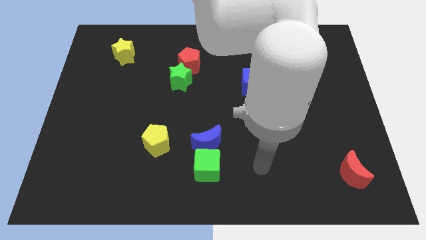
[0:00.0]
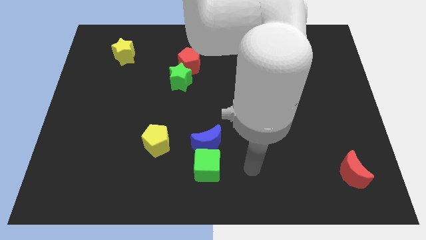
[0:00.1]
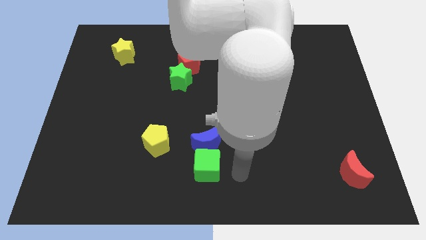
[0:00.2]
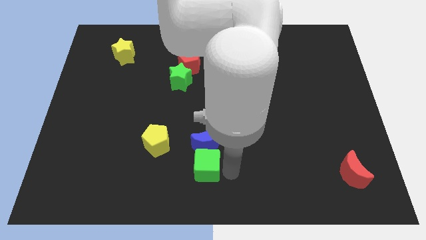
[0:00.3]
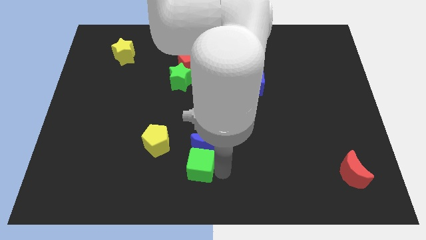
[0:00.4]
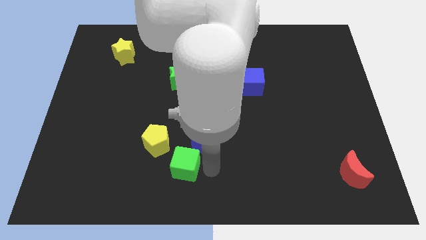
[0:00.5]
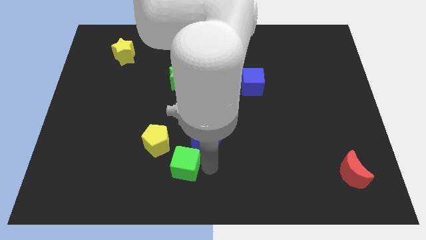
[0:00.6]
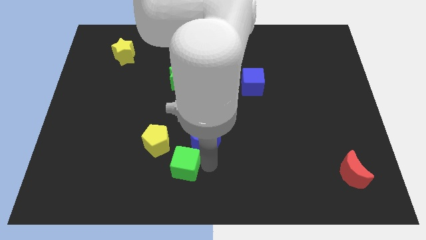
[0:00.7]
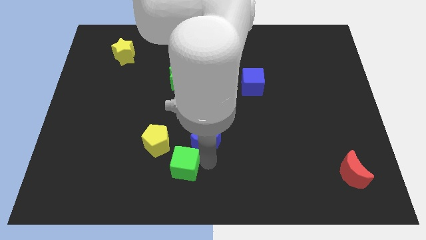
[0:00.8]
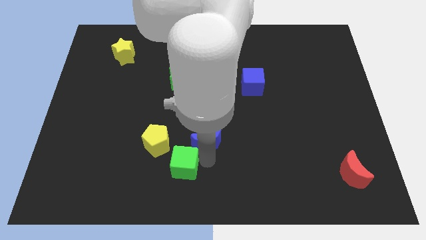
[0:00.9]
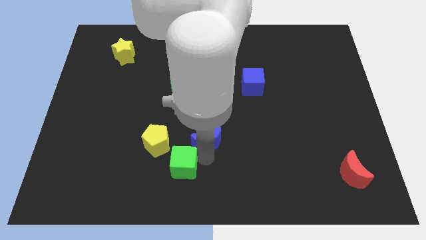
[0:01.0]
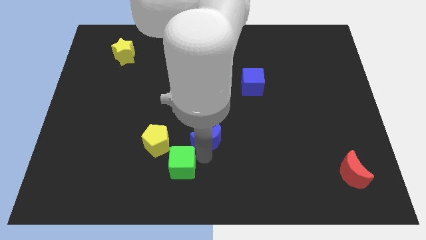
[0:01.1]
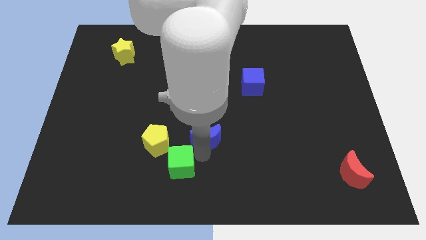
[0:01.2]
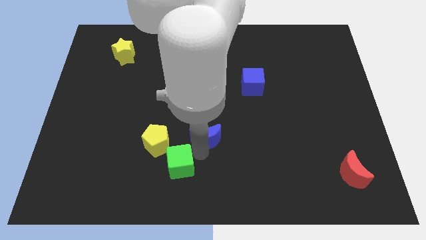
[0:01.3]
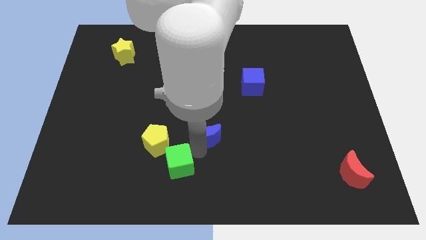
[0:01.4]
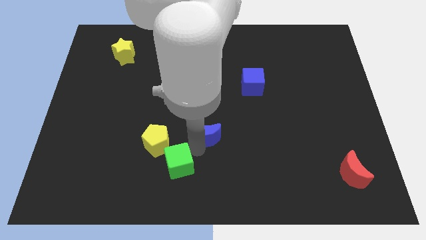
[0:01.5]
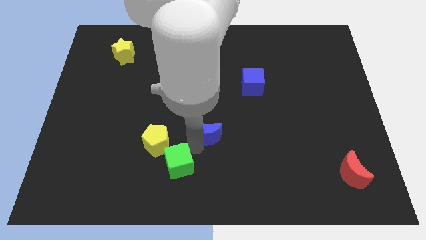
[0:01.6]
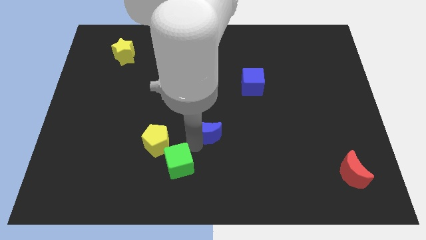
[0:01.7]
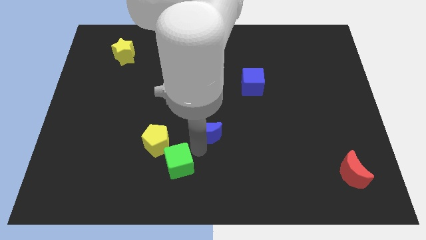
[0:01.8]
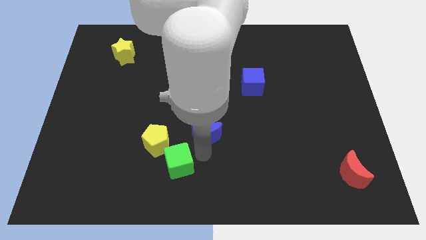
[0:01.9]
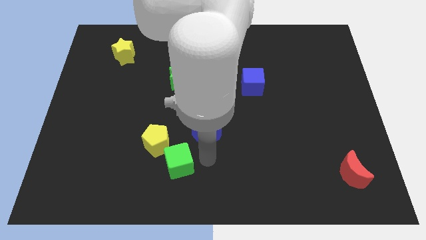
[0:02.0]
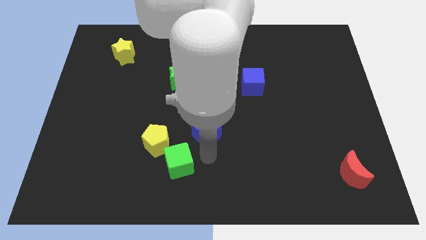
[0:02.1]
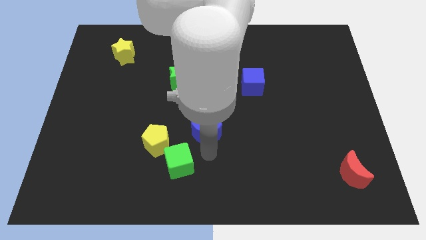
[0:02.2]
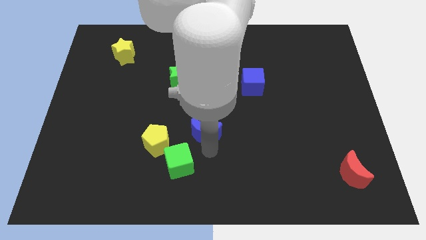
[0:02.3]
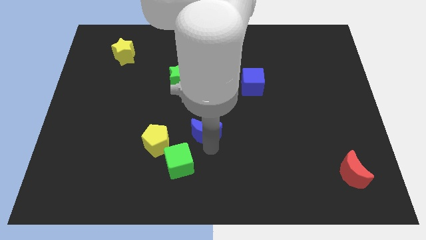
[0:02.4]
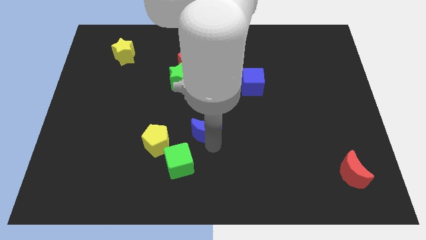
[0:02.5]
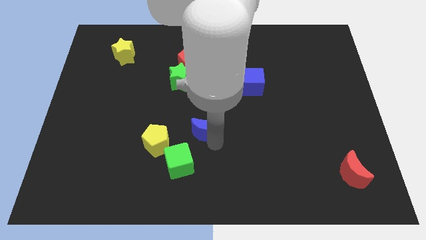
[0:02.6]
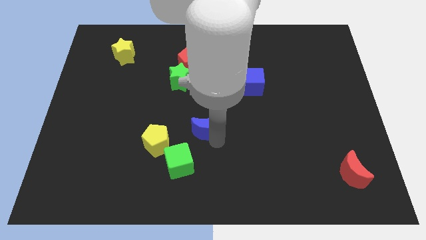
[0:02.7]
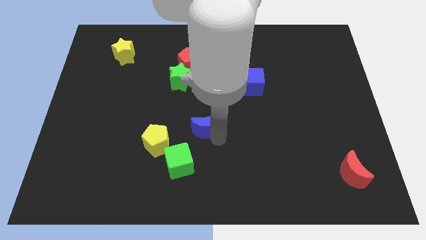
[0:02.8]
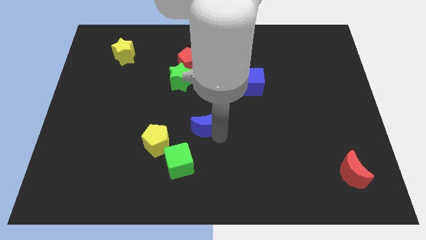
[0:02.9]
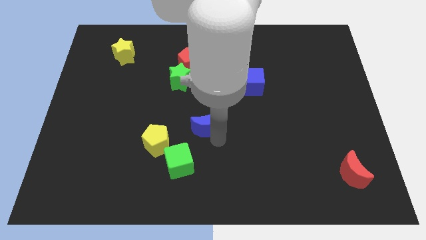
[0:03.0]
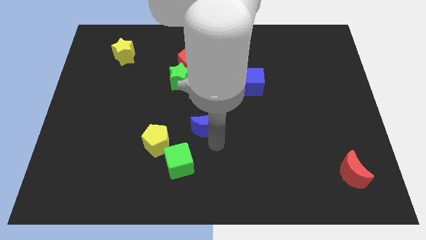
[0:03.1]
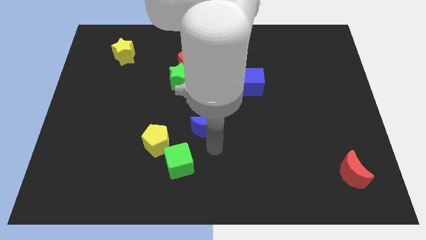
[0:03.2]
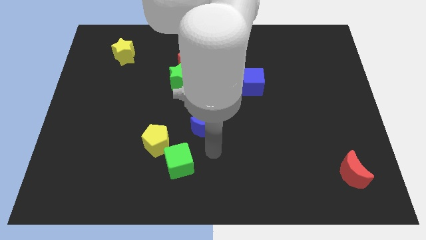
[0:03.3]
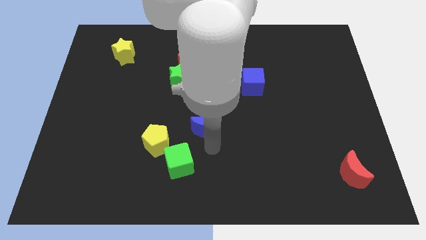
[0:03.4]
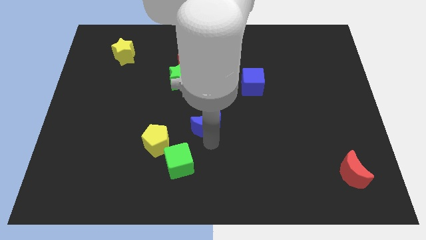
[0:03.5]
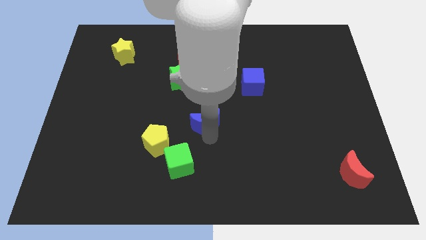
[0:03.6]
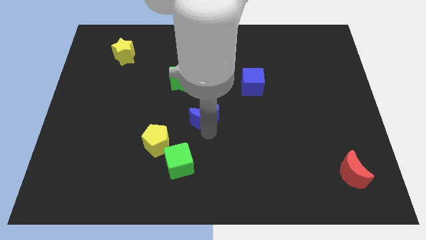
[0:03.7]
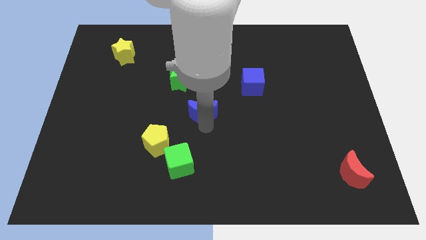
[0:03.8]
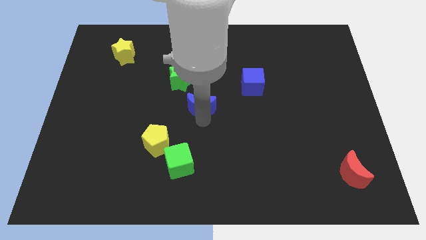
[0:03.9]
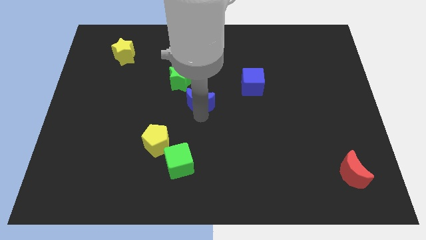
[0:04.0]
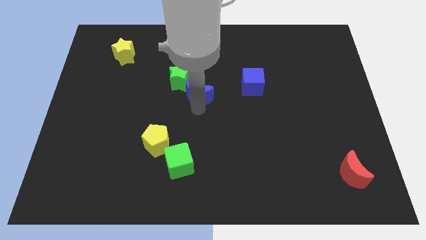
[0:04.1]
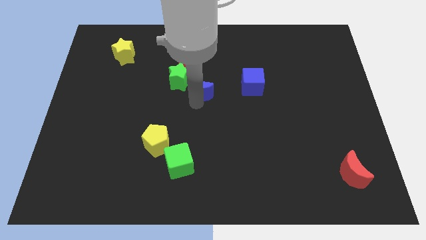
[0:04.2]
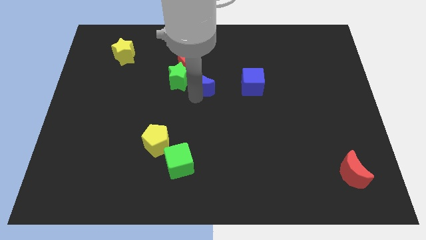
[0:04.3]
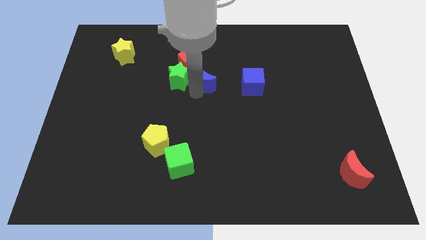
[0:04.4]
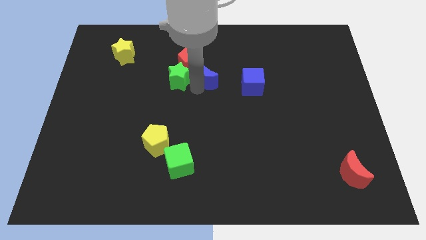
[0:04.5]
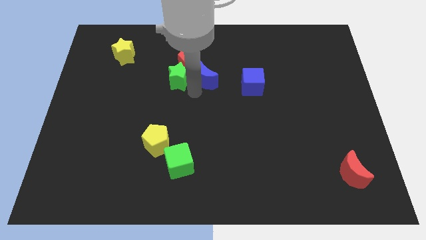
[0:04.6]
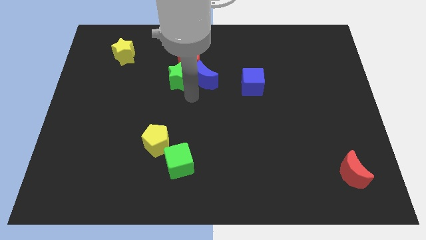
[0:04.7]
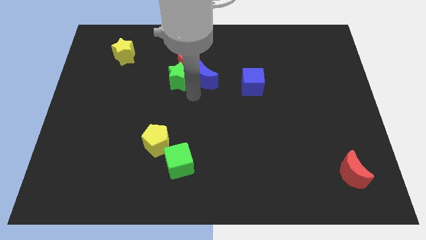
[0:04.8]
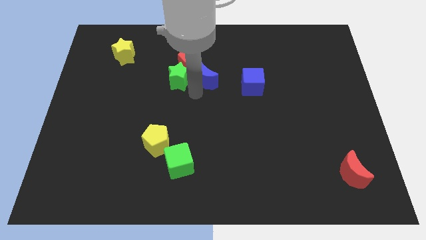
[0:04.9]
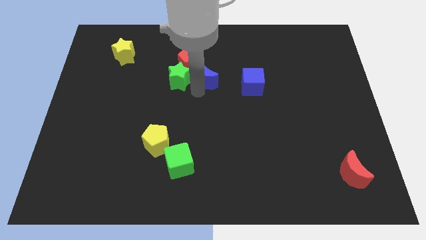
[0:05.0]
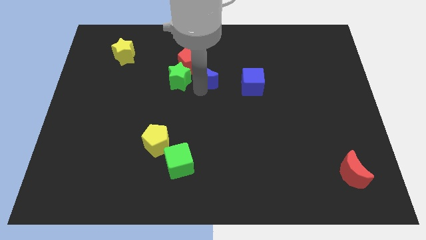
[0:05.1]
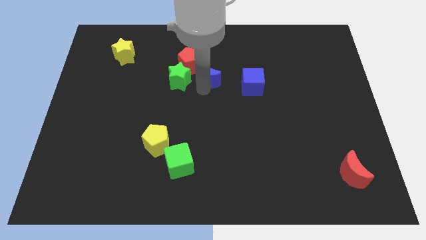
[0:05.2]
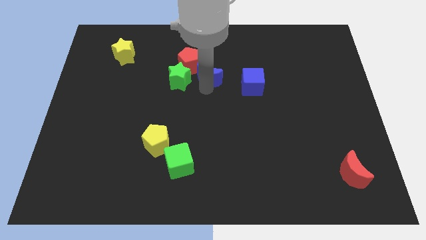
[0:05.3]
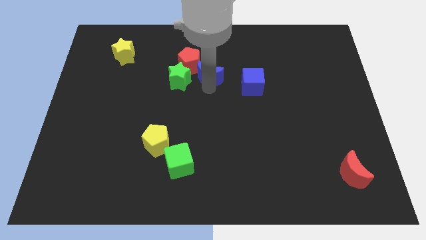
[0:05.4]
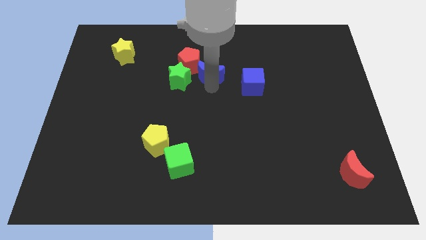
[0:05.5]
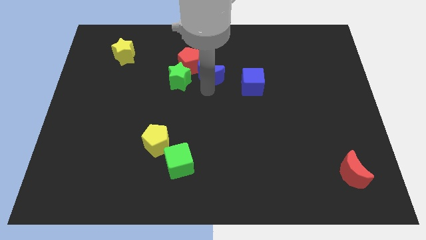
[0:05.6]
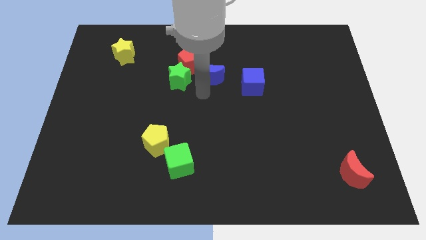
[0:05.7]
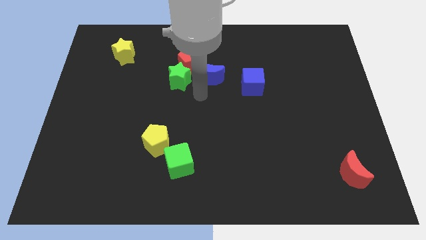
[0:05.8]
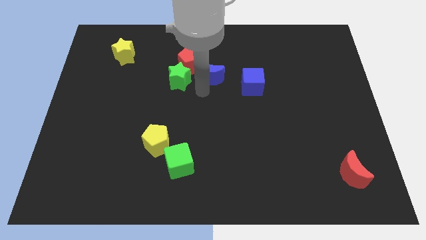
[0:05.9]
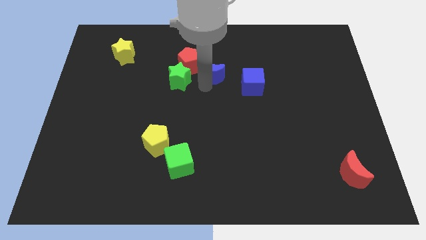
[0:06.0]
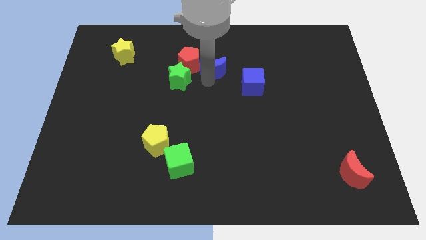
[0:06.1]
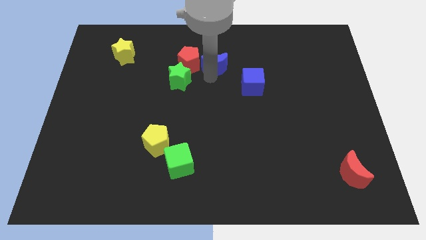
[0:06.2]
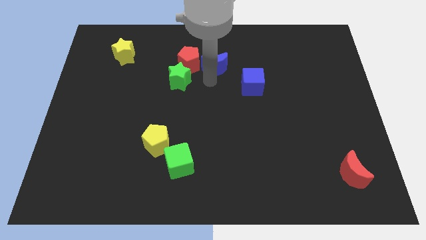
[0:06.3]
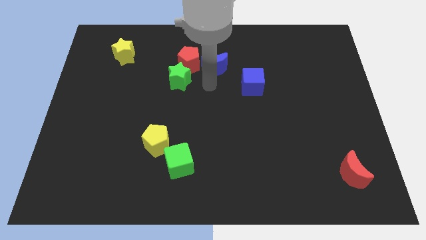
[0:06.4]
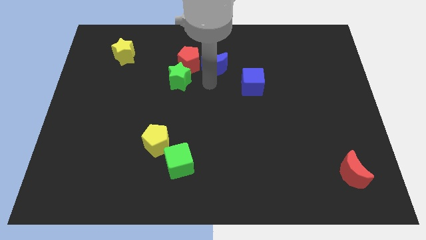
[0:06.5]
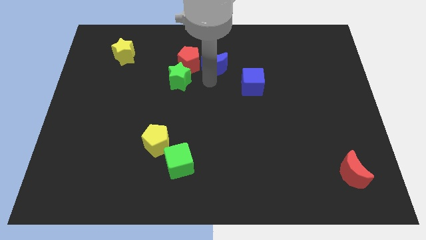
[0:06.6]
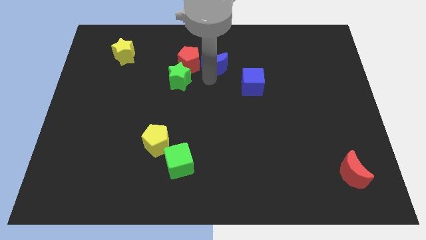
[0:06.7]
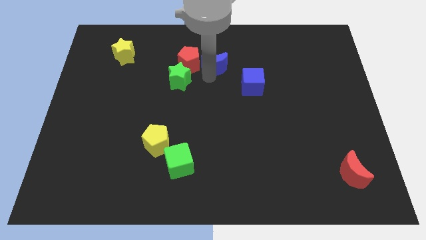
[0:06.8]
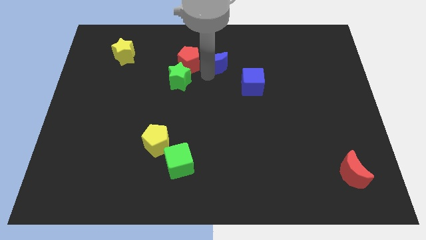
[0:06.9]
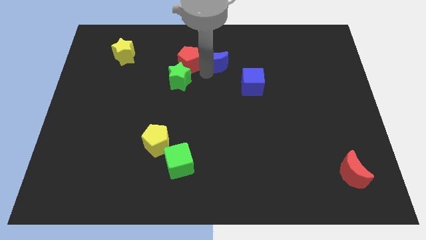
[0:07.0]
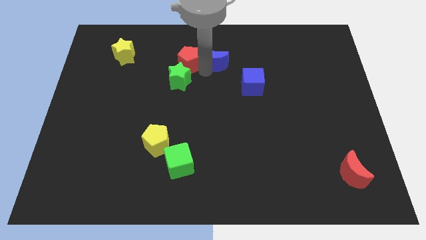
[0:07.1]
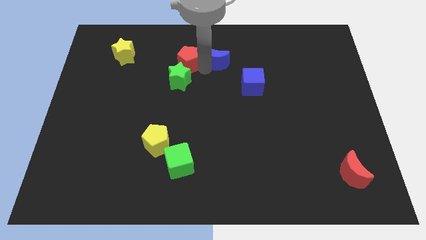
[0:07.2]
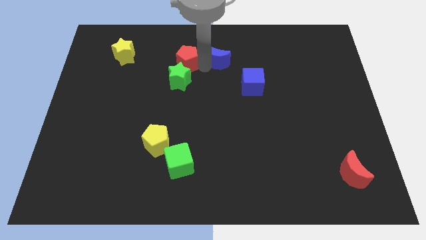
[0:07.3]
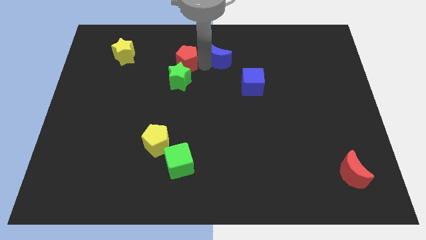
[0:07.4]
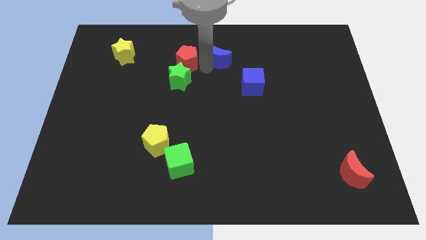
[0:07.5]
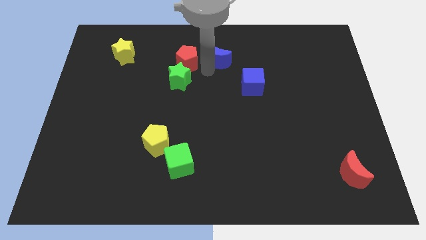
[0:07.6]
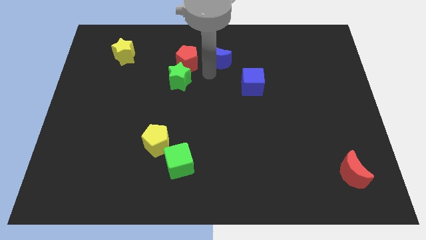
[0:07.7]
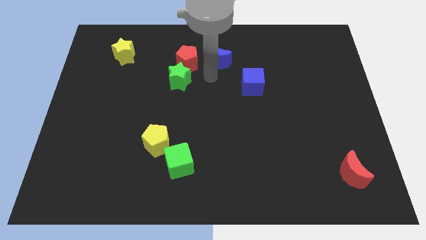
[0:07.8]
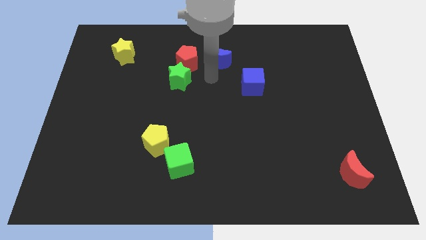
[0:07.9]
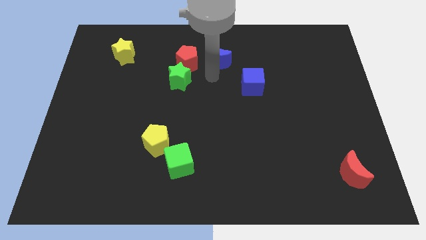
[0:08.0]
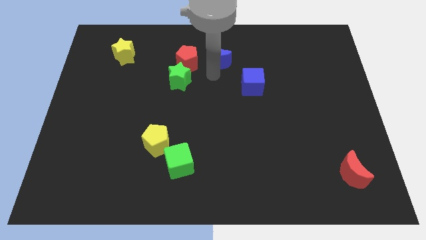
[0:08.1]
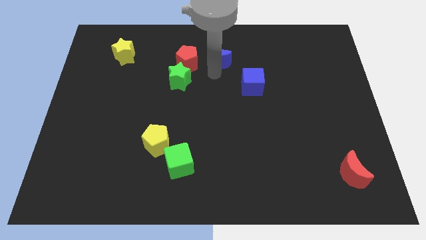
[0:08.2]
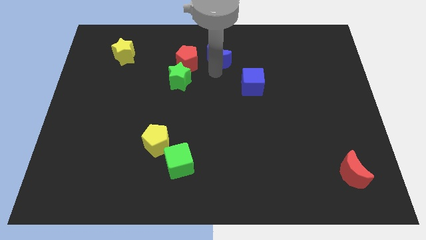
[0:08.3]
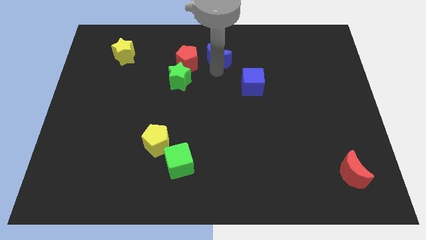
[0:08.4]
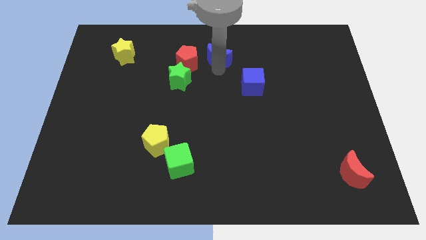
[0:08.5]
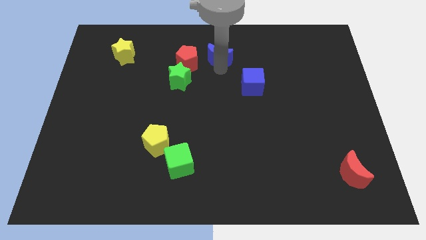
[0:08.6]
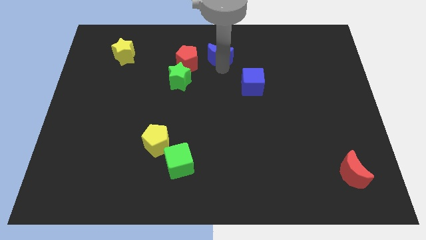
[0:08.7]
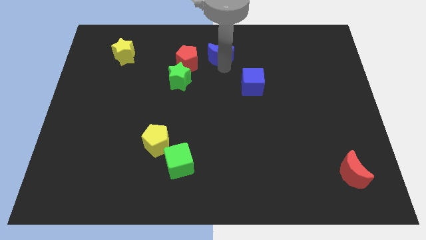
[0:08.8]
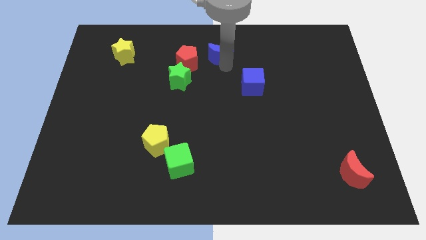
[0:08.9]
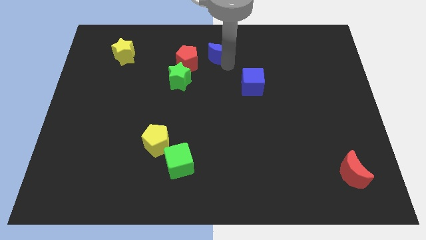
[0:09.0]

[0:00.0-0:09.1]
push the blue moon to the towards your base
